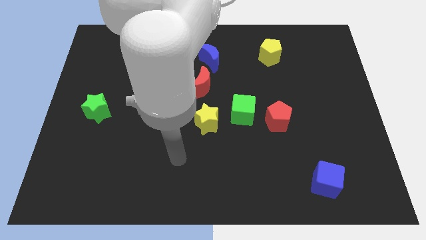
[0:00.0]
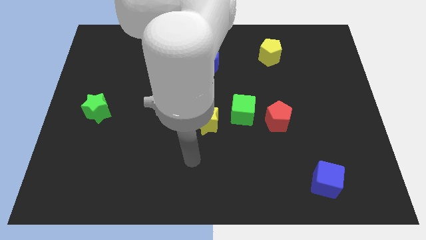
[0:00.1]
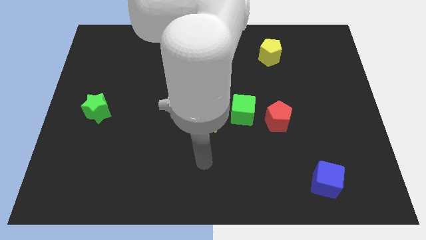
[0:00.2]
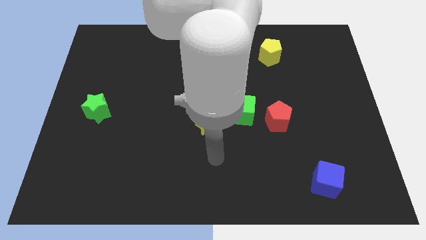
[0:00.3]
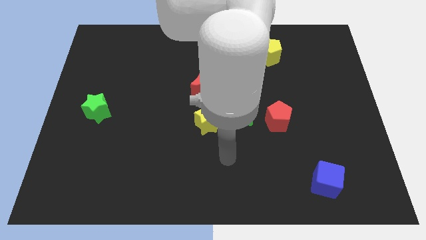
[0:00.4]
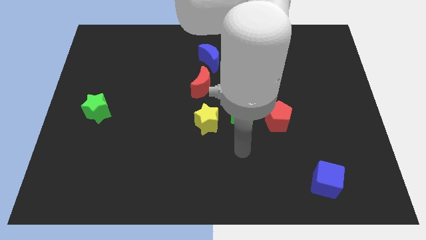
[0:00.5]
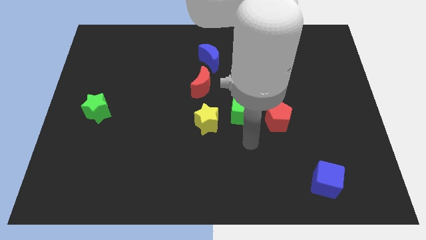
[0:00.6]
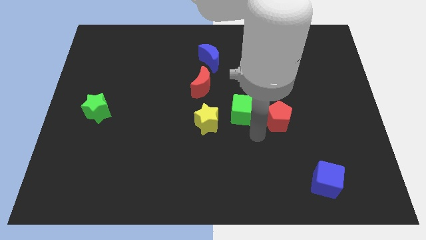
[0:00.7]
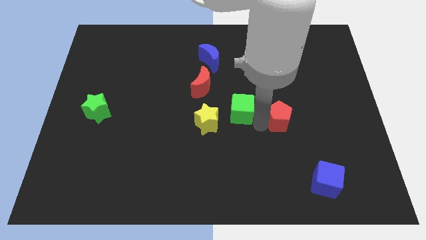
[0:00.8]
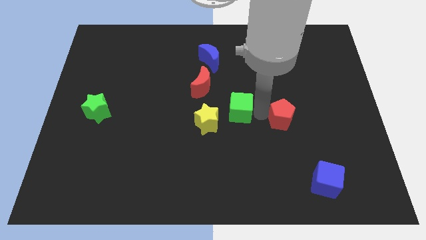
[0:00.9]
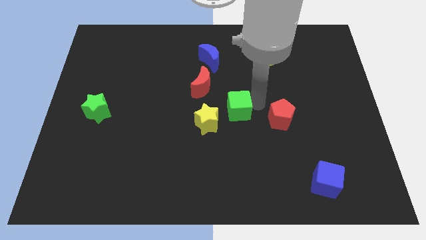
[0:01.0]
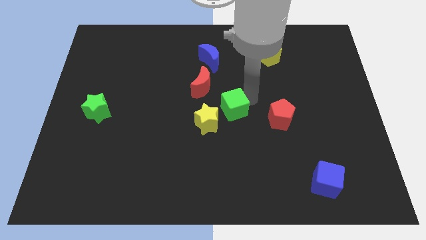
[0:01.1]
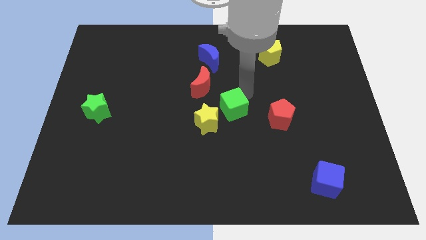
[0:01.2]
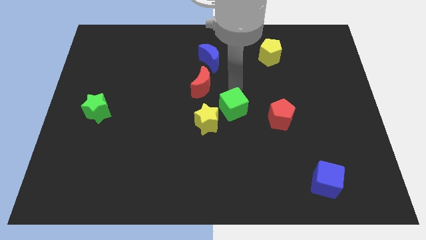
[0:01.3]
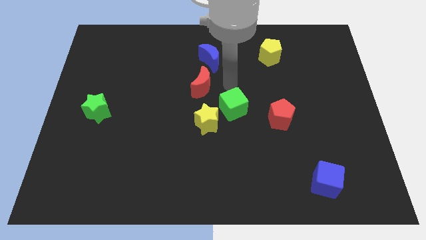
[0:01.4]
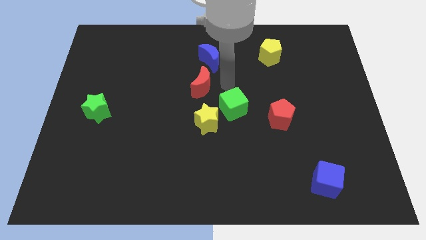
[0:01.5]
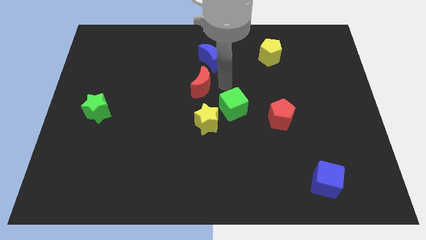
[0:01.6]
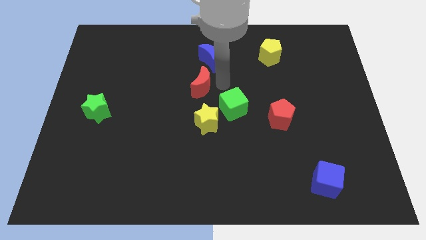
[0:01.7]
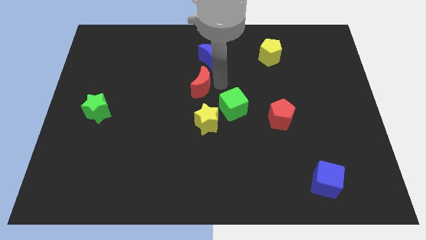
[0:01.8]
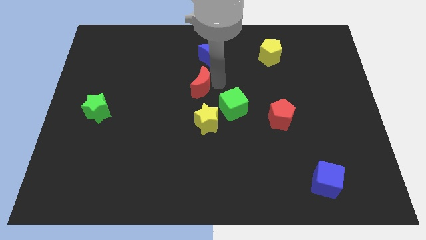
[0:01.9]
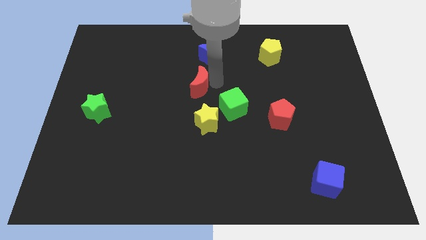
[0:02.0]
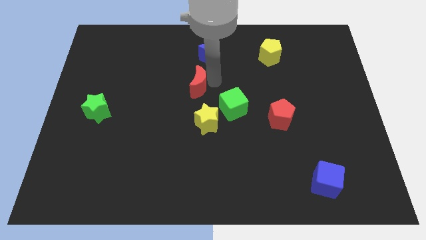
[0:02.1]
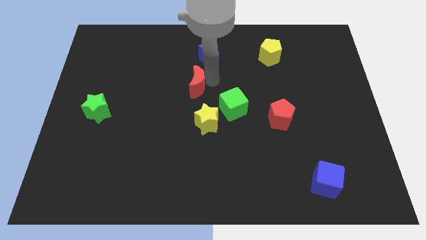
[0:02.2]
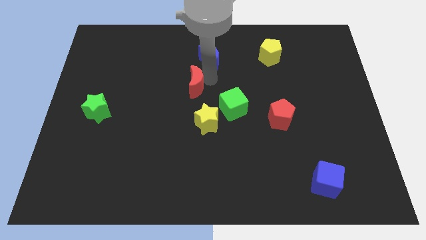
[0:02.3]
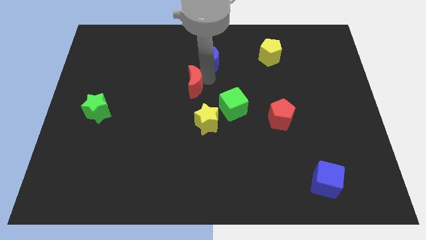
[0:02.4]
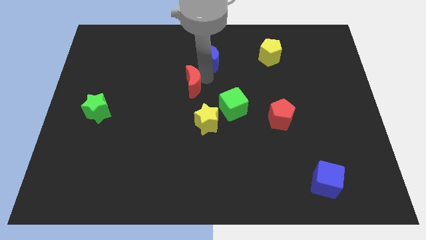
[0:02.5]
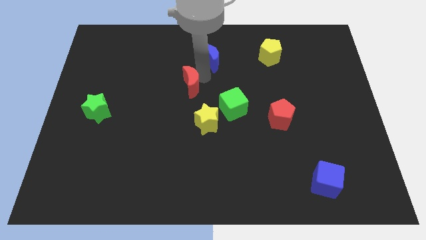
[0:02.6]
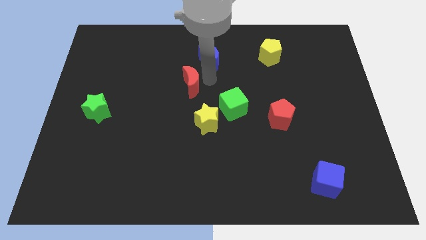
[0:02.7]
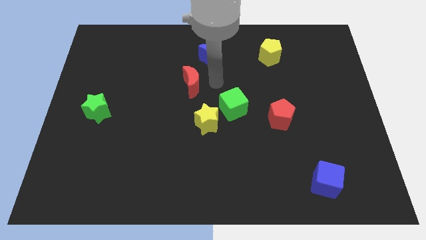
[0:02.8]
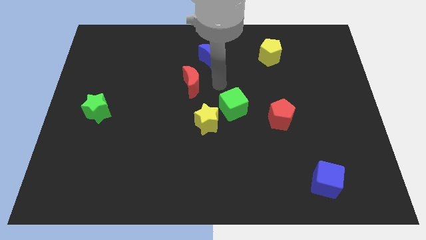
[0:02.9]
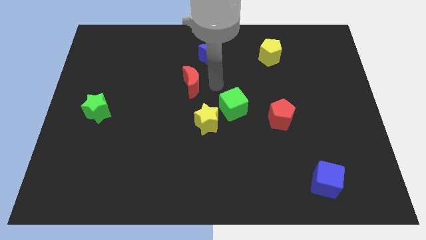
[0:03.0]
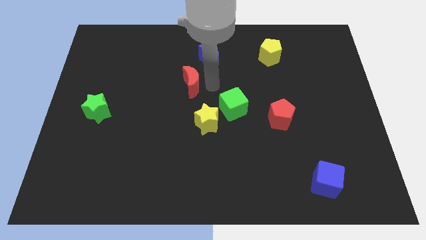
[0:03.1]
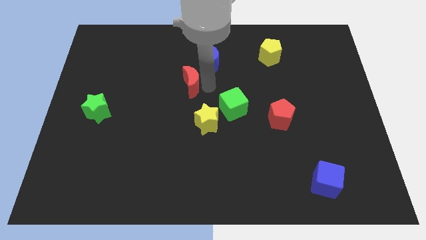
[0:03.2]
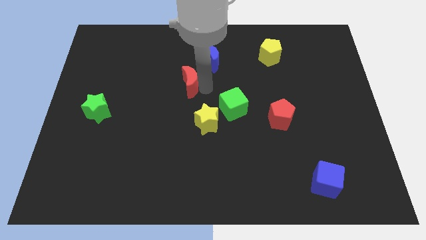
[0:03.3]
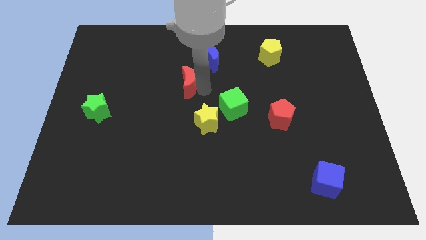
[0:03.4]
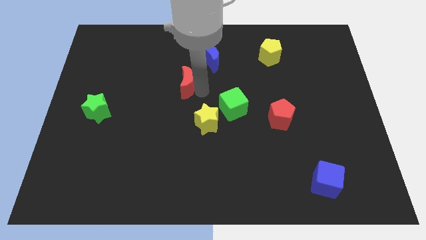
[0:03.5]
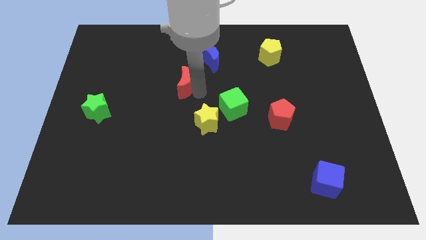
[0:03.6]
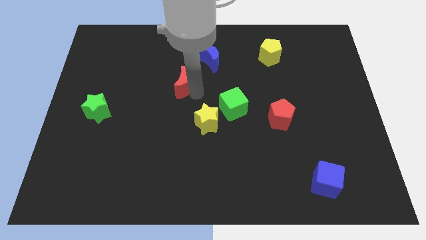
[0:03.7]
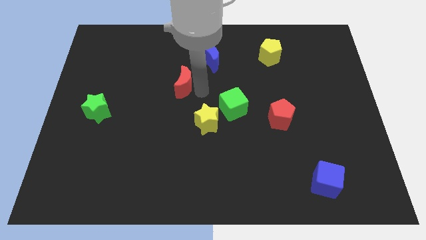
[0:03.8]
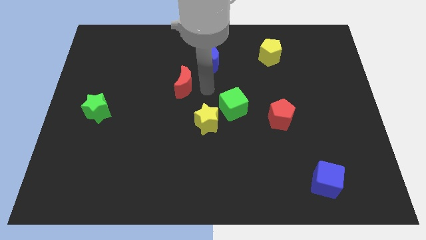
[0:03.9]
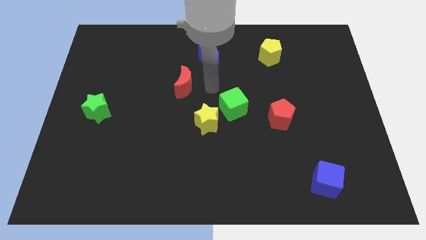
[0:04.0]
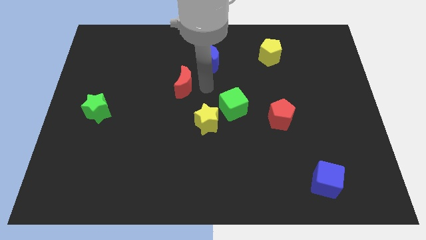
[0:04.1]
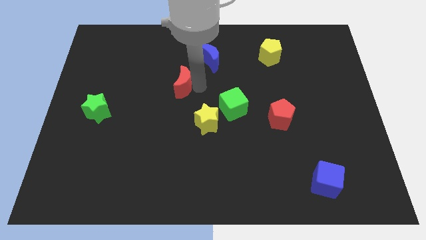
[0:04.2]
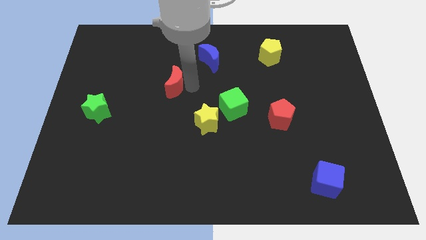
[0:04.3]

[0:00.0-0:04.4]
slide the red moon a little to the left

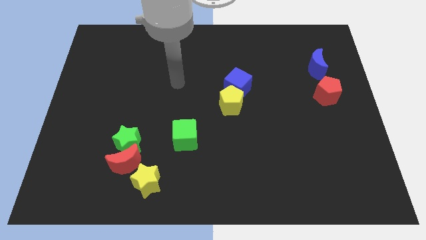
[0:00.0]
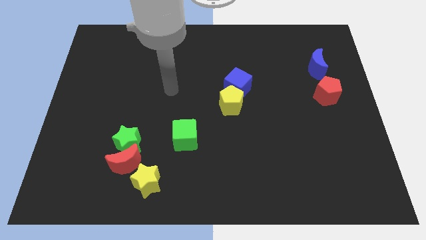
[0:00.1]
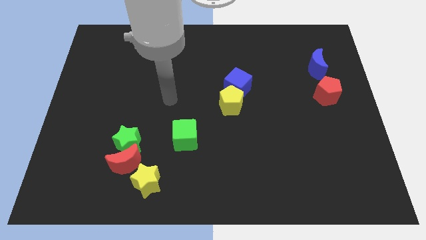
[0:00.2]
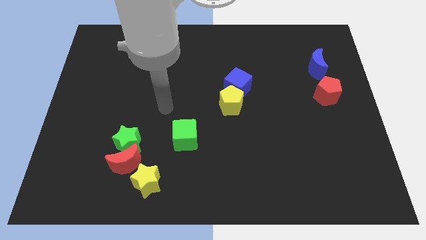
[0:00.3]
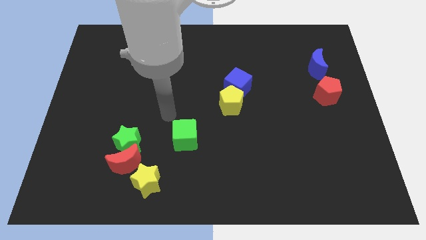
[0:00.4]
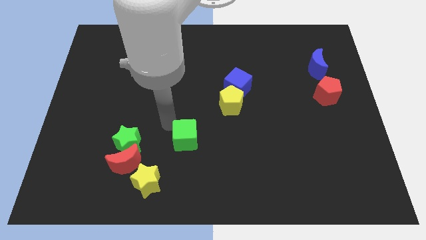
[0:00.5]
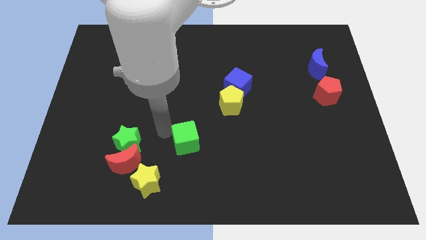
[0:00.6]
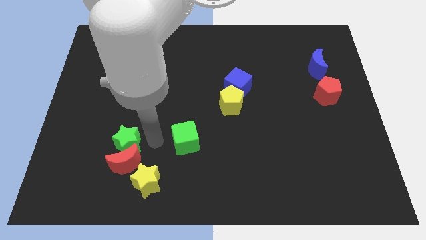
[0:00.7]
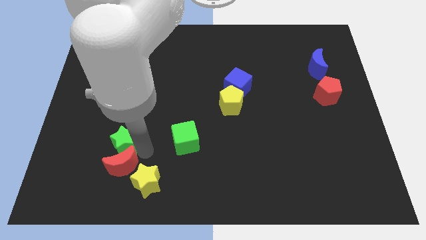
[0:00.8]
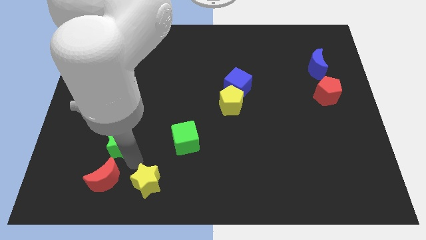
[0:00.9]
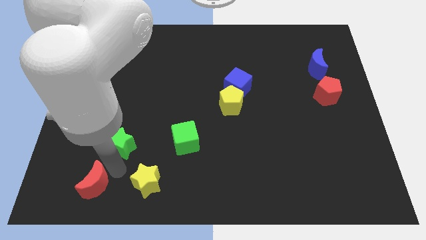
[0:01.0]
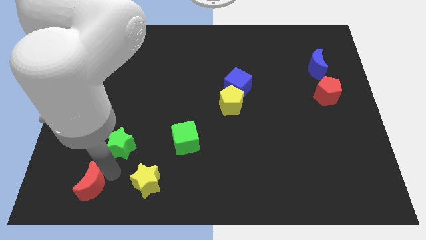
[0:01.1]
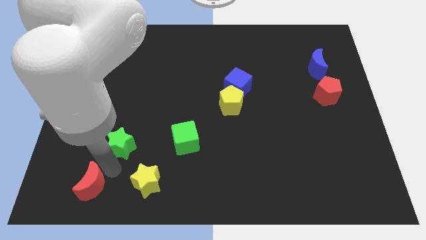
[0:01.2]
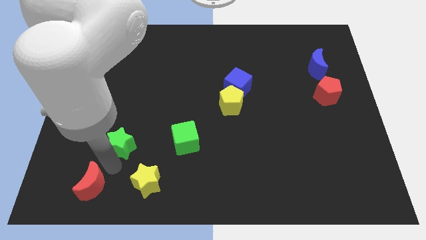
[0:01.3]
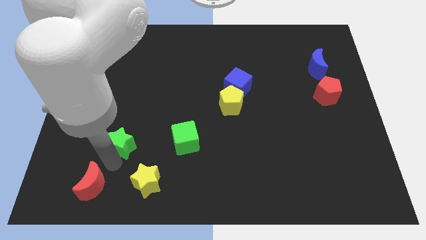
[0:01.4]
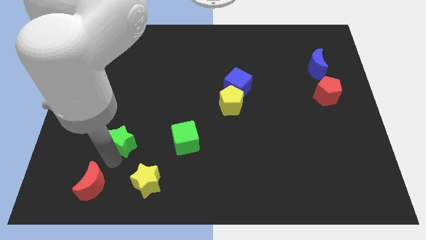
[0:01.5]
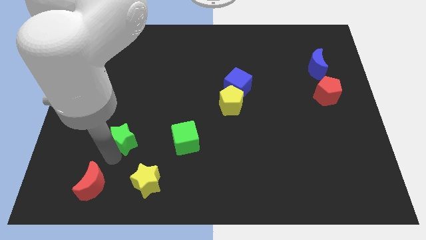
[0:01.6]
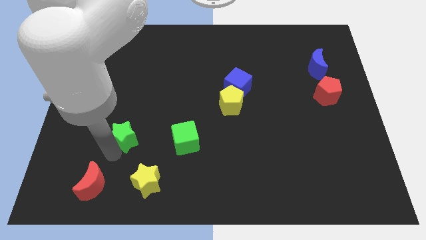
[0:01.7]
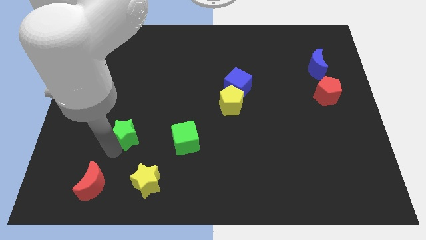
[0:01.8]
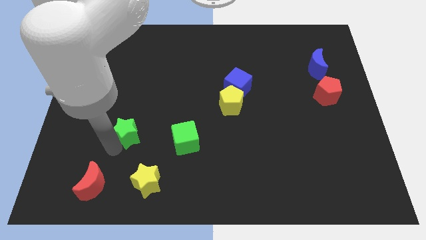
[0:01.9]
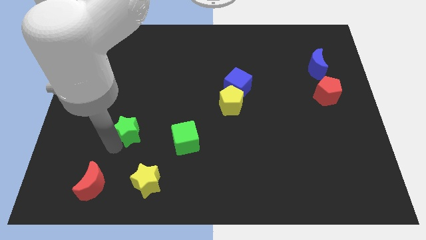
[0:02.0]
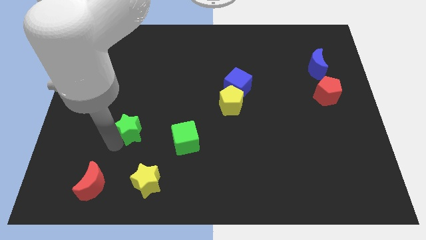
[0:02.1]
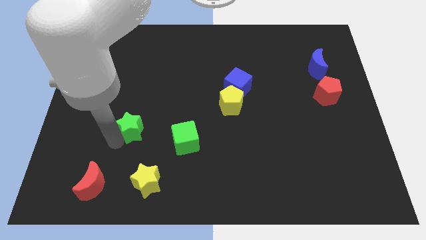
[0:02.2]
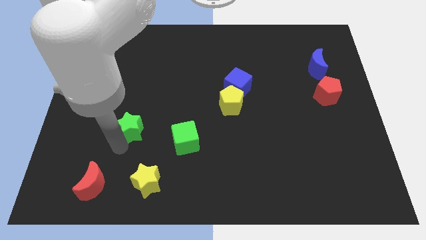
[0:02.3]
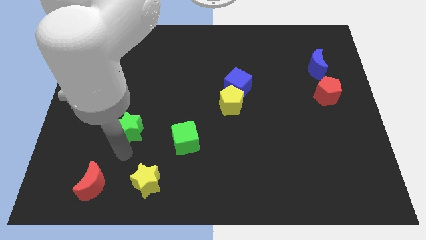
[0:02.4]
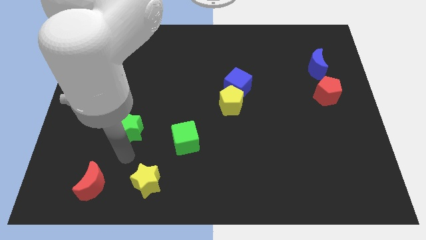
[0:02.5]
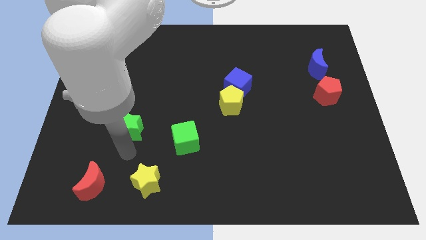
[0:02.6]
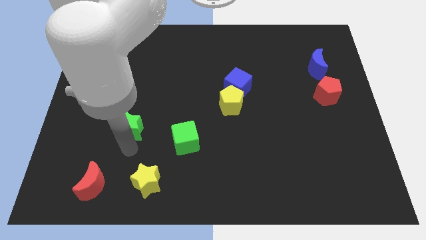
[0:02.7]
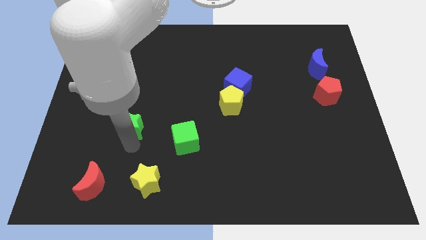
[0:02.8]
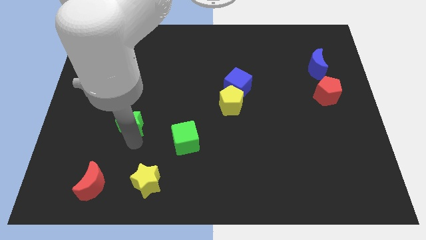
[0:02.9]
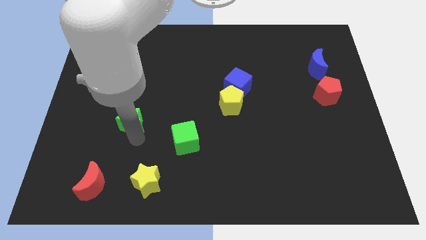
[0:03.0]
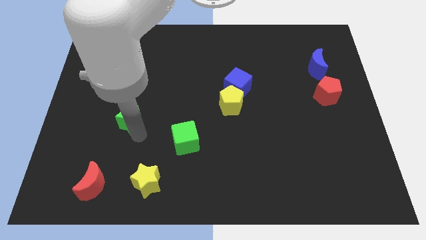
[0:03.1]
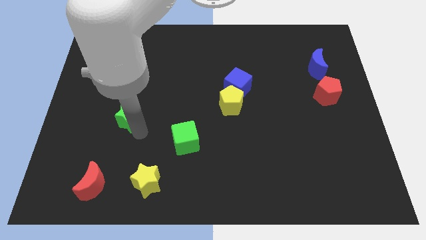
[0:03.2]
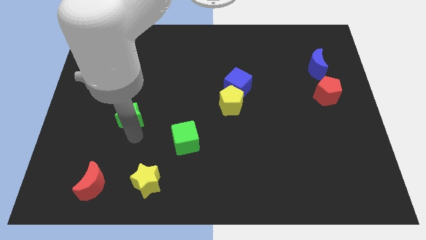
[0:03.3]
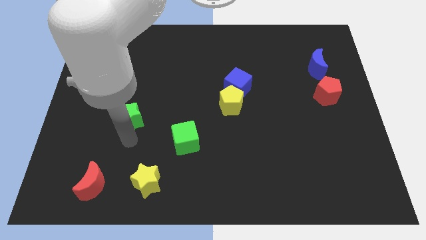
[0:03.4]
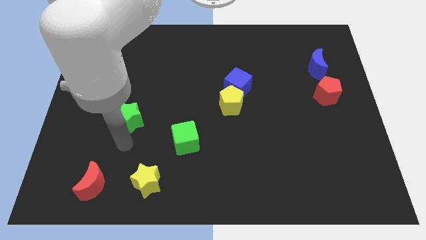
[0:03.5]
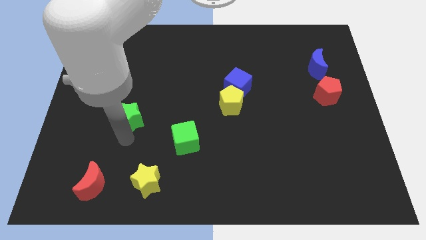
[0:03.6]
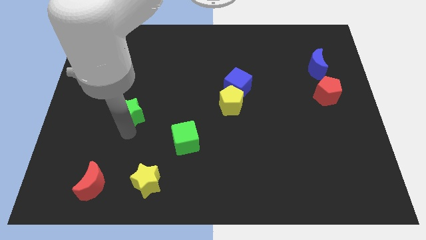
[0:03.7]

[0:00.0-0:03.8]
move the green star up slightly

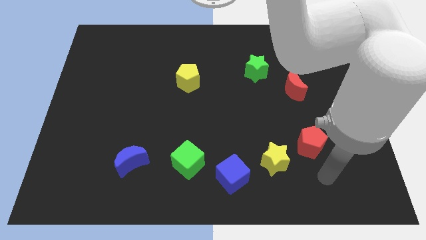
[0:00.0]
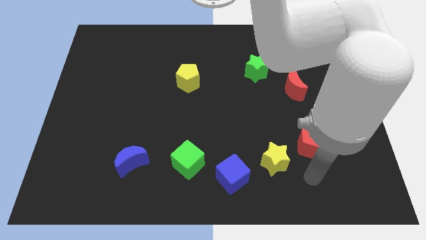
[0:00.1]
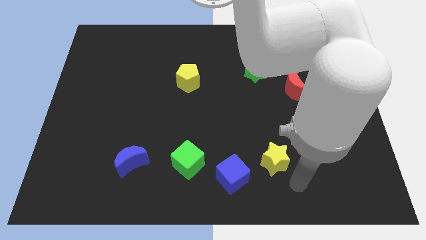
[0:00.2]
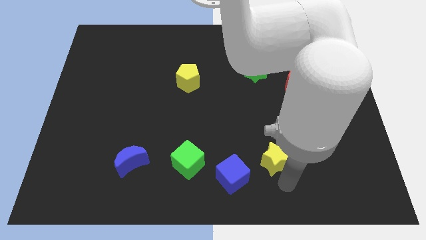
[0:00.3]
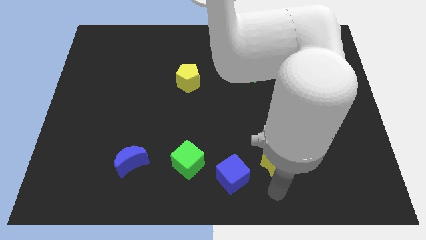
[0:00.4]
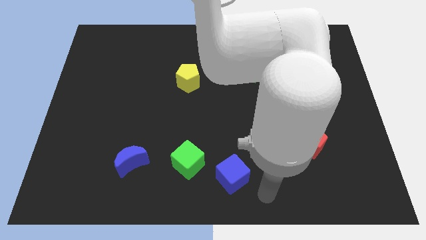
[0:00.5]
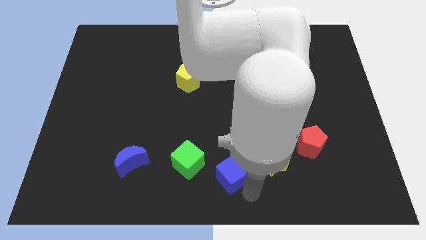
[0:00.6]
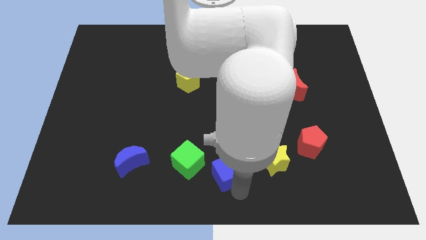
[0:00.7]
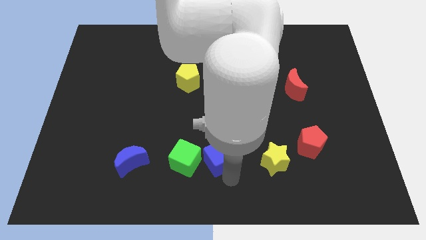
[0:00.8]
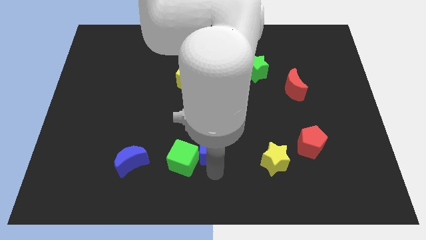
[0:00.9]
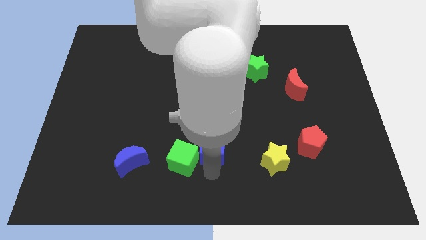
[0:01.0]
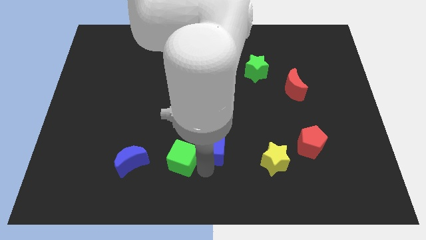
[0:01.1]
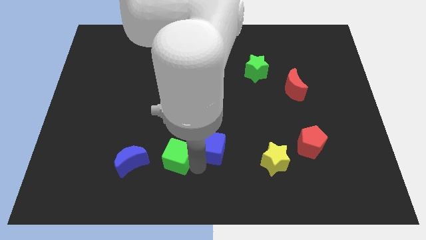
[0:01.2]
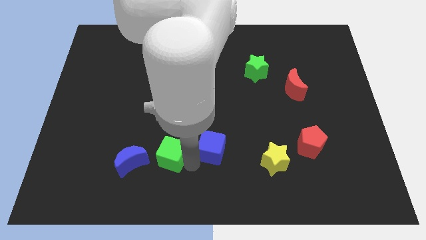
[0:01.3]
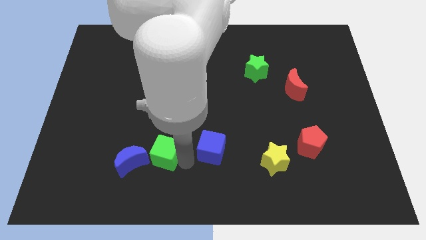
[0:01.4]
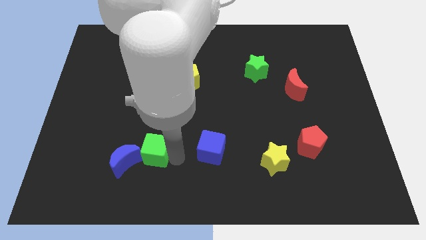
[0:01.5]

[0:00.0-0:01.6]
slightly push the green cube left
